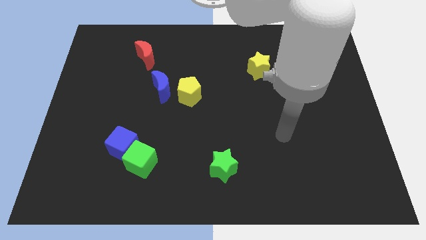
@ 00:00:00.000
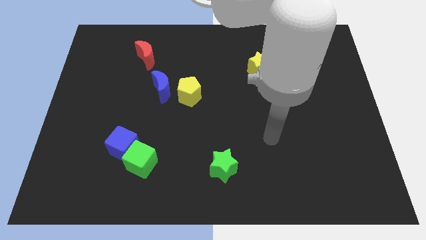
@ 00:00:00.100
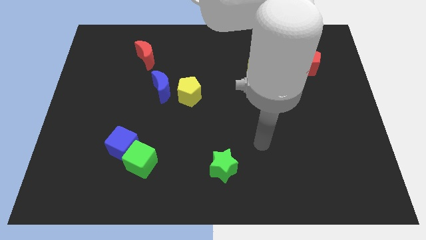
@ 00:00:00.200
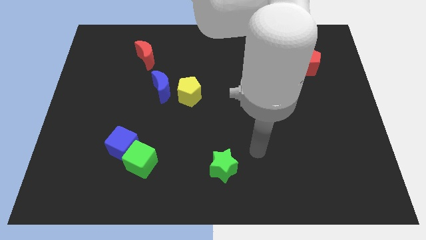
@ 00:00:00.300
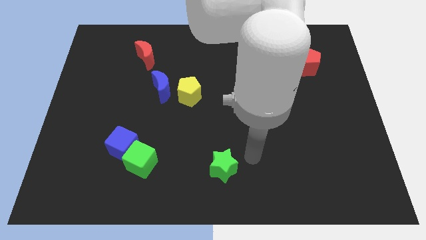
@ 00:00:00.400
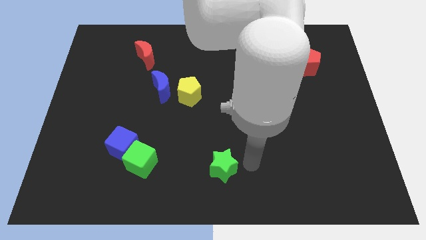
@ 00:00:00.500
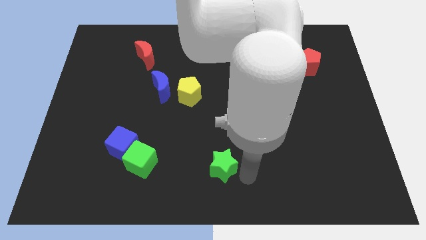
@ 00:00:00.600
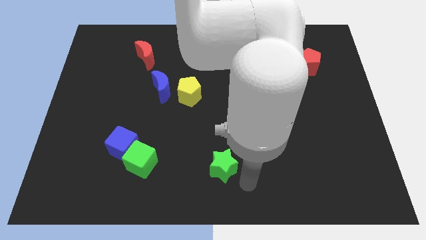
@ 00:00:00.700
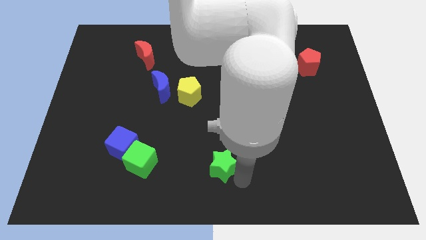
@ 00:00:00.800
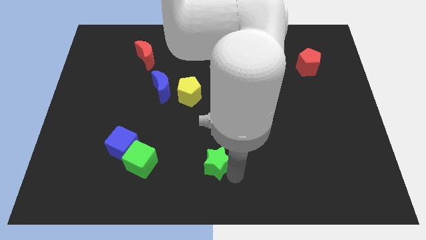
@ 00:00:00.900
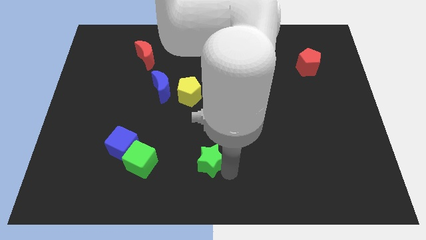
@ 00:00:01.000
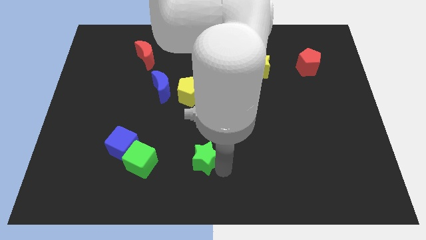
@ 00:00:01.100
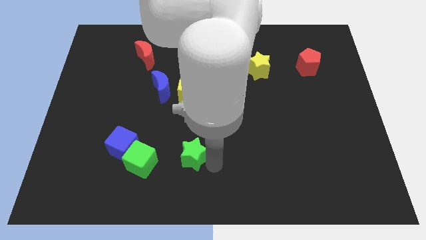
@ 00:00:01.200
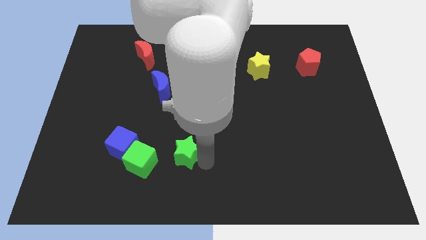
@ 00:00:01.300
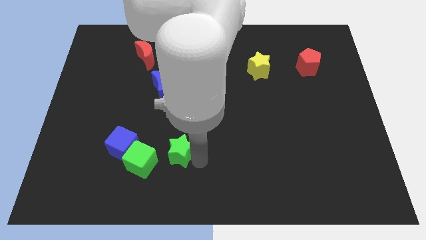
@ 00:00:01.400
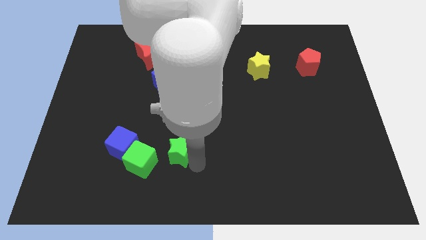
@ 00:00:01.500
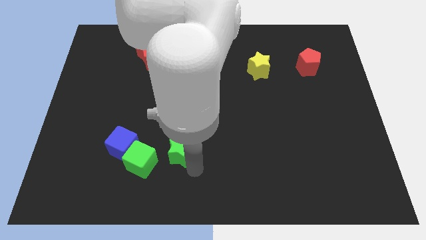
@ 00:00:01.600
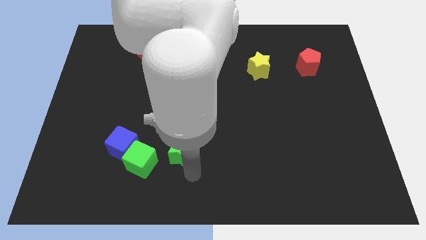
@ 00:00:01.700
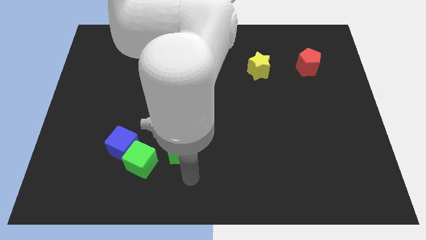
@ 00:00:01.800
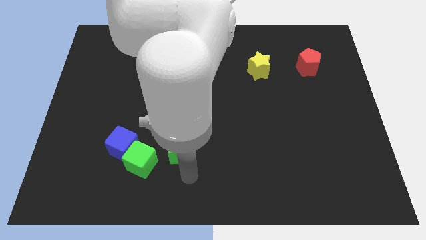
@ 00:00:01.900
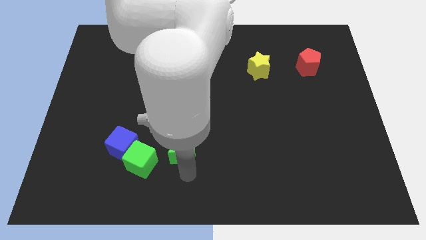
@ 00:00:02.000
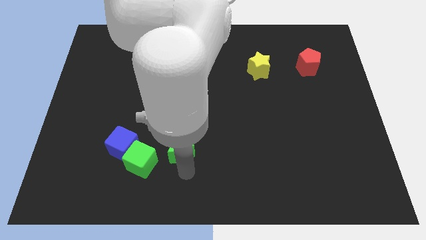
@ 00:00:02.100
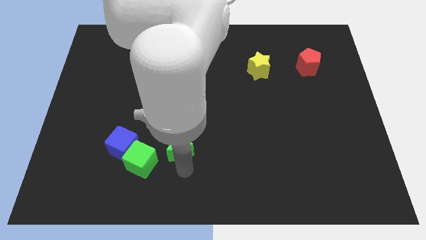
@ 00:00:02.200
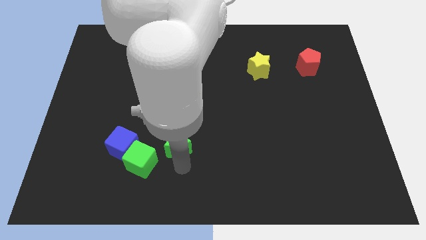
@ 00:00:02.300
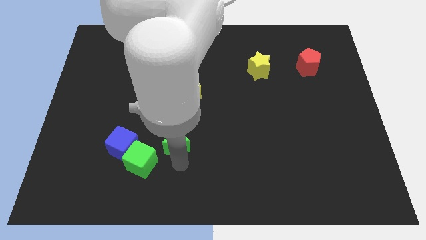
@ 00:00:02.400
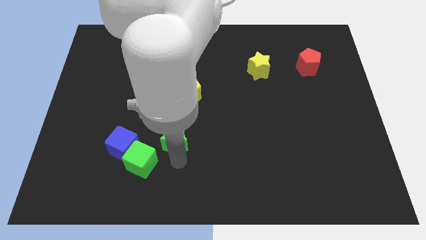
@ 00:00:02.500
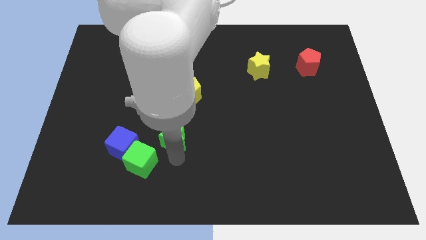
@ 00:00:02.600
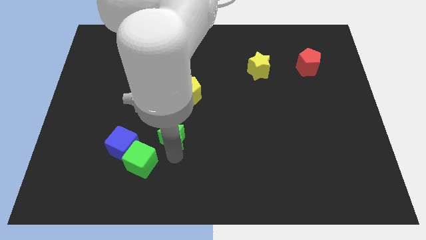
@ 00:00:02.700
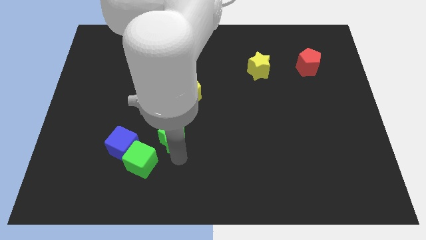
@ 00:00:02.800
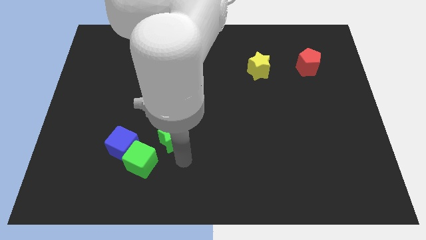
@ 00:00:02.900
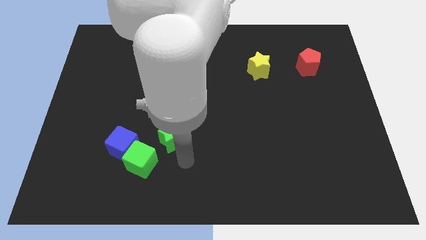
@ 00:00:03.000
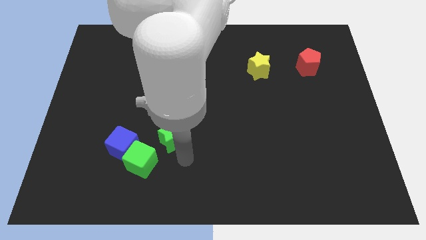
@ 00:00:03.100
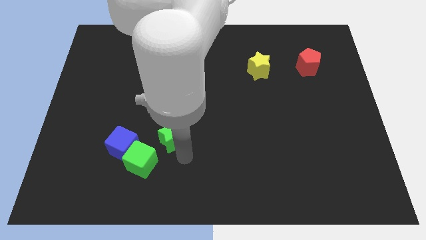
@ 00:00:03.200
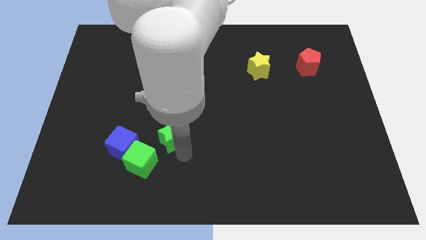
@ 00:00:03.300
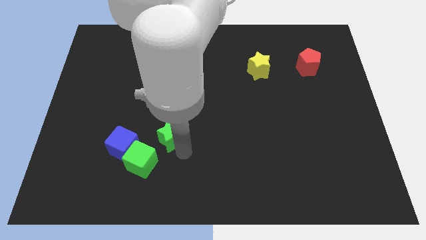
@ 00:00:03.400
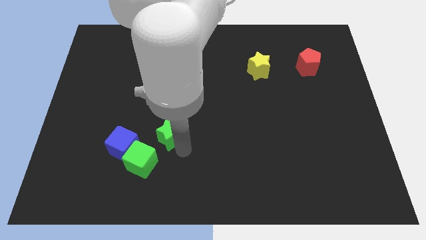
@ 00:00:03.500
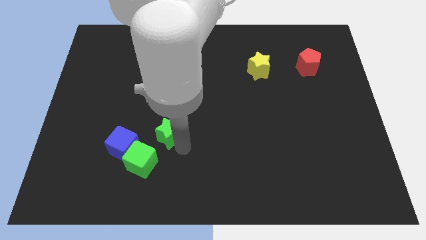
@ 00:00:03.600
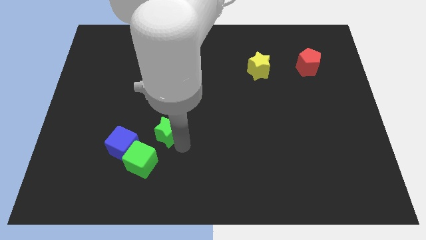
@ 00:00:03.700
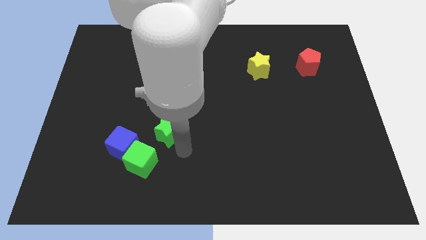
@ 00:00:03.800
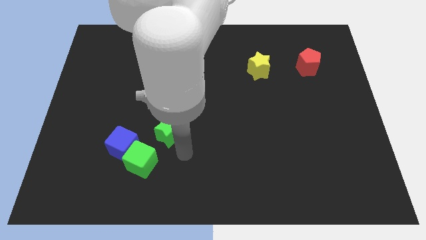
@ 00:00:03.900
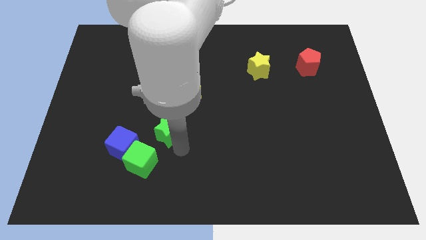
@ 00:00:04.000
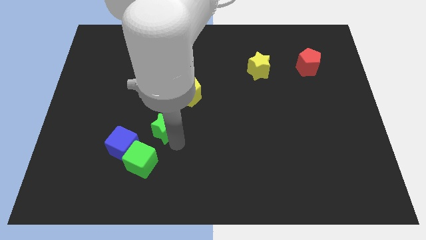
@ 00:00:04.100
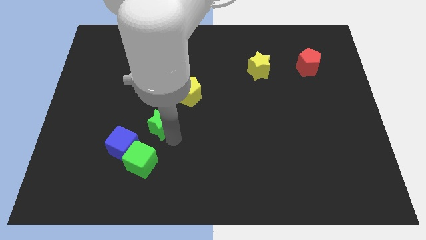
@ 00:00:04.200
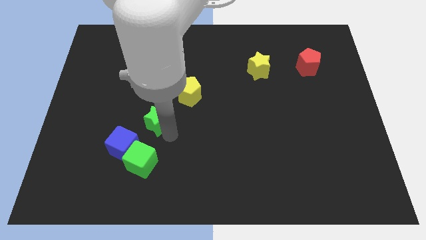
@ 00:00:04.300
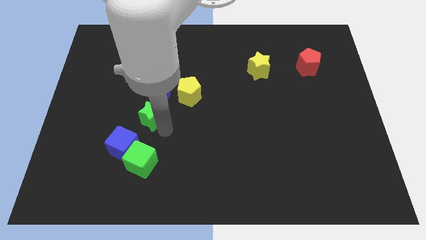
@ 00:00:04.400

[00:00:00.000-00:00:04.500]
push the green star up and then to the left

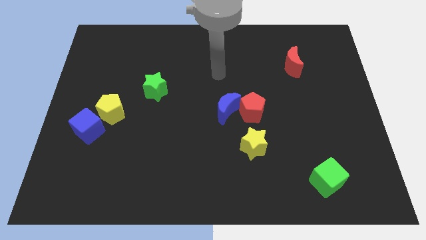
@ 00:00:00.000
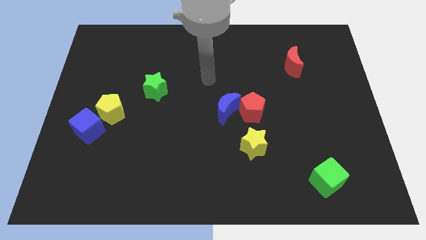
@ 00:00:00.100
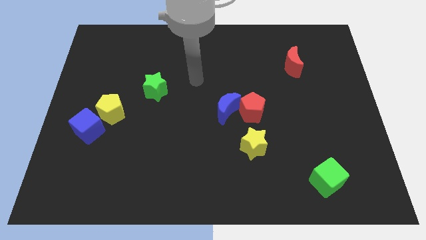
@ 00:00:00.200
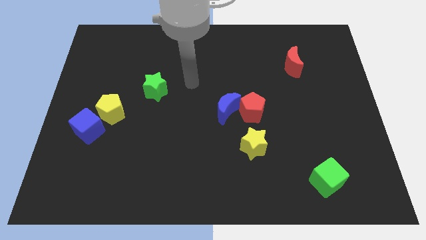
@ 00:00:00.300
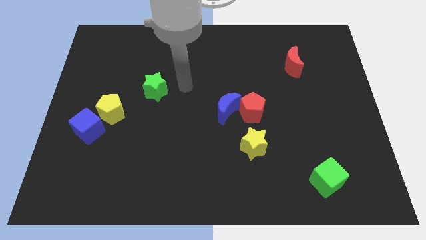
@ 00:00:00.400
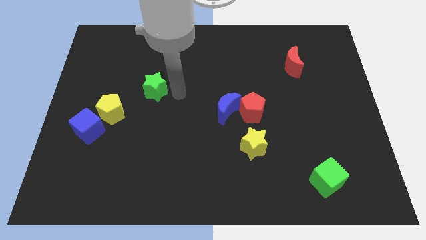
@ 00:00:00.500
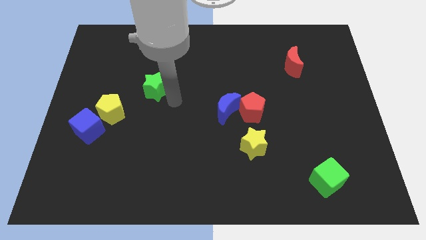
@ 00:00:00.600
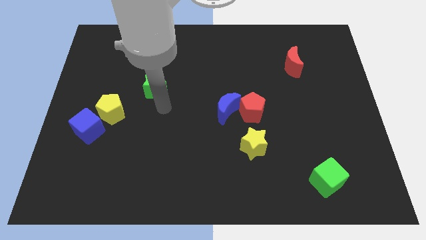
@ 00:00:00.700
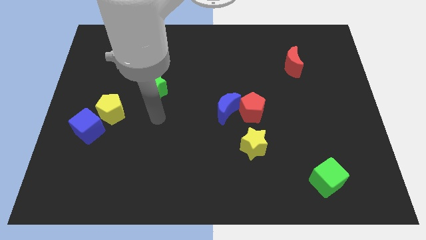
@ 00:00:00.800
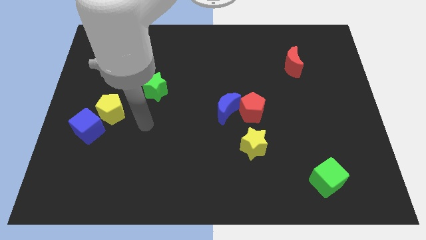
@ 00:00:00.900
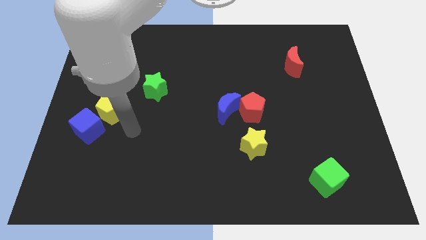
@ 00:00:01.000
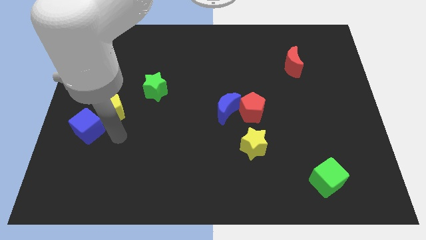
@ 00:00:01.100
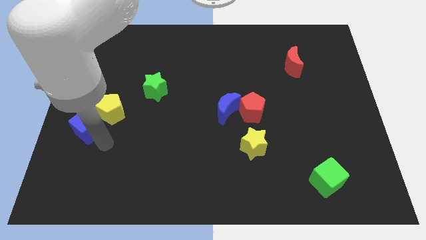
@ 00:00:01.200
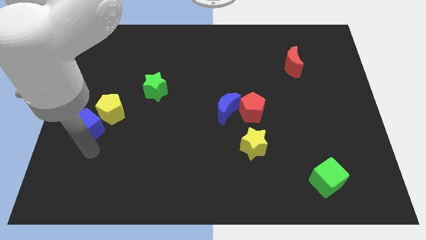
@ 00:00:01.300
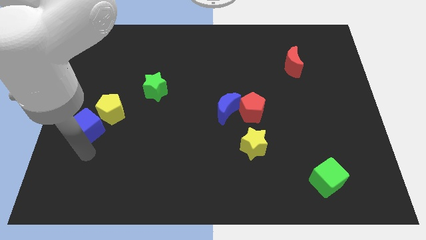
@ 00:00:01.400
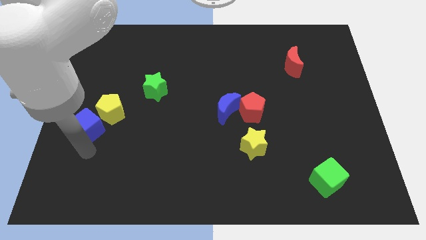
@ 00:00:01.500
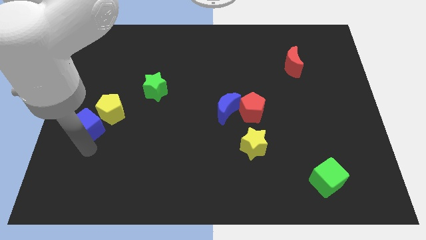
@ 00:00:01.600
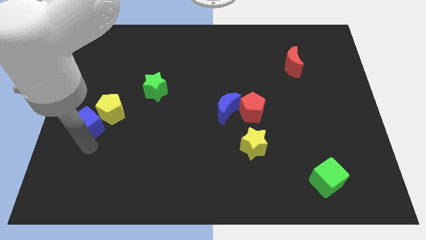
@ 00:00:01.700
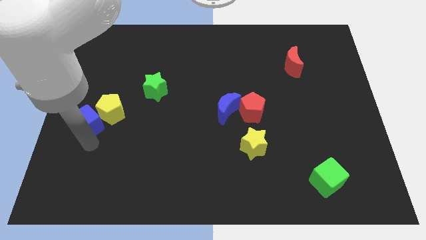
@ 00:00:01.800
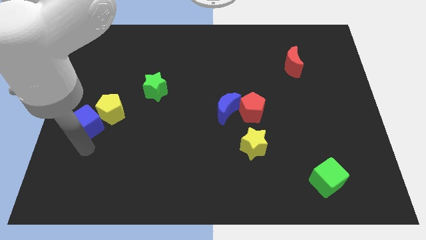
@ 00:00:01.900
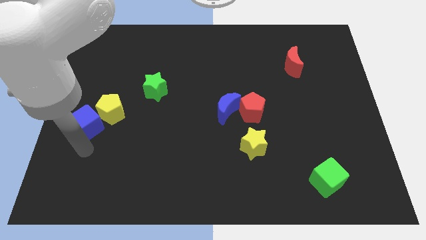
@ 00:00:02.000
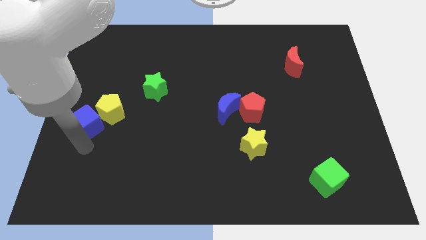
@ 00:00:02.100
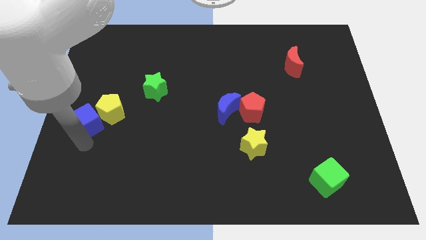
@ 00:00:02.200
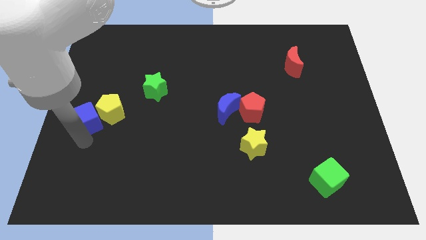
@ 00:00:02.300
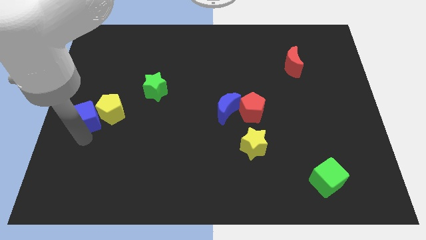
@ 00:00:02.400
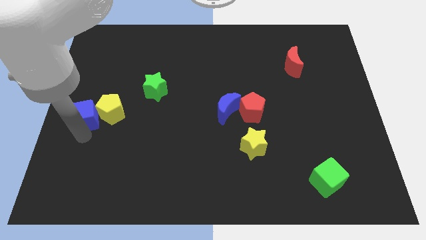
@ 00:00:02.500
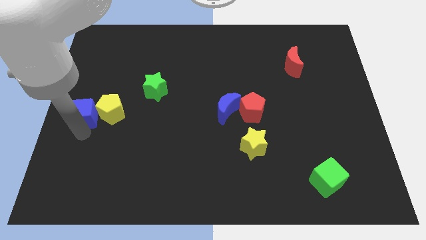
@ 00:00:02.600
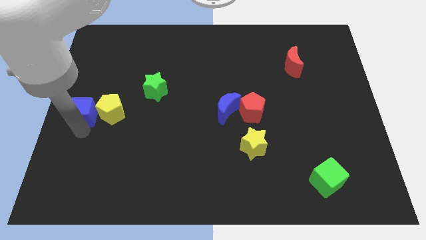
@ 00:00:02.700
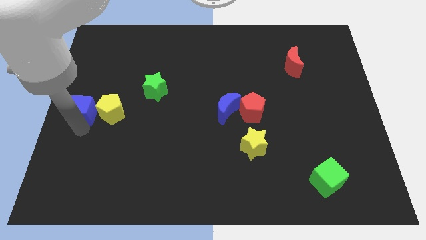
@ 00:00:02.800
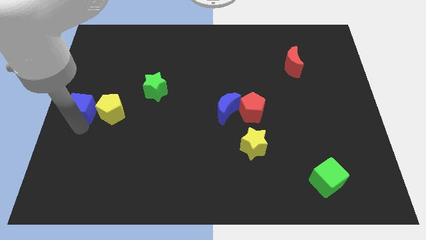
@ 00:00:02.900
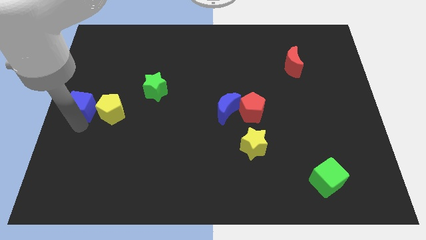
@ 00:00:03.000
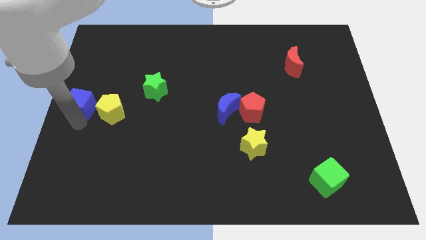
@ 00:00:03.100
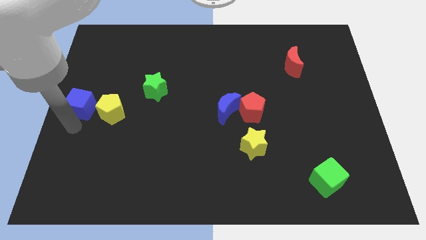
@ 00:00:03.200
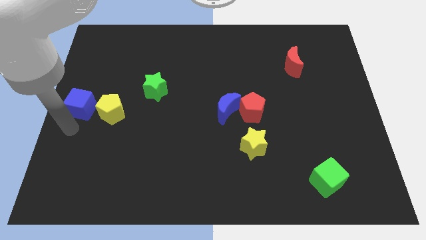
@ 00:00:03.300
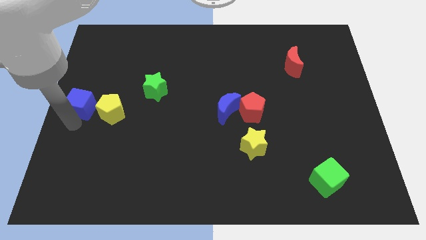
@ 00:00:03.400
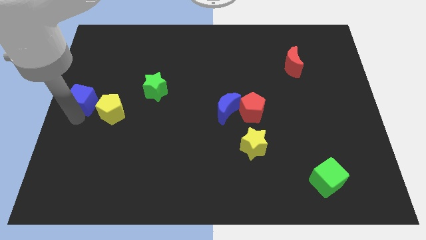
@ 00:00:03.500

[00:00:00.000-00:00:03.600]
slightly move the blue cube upwards
